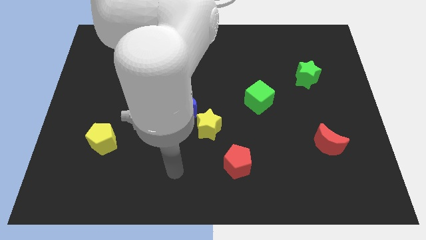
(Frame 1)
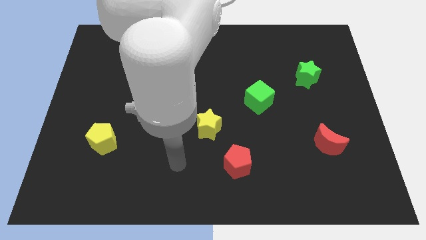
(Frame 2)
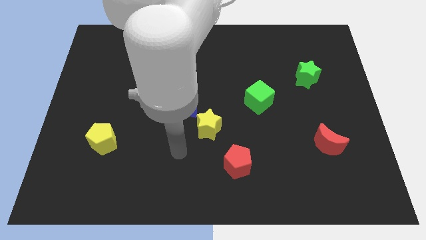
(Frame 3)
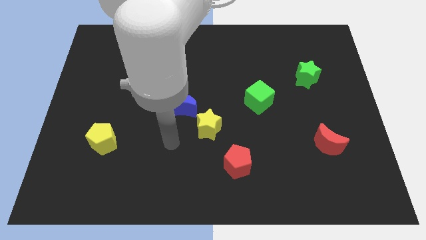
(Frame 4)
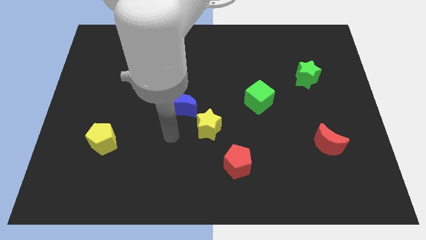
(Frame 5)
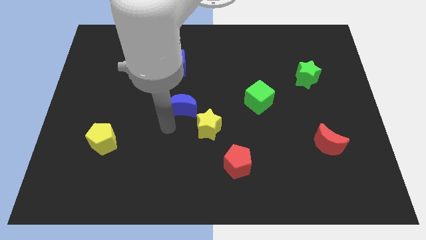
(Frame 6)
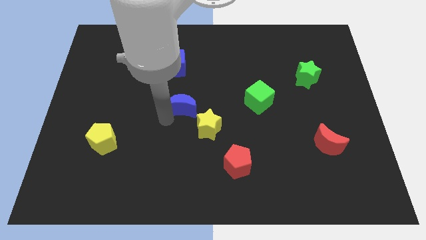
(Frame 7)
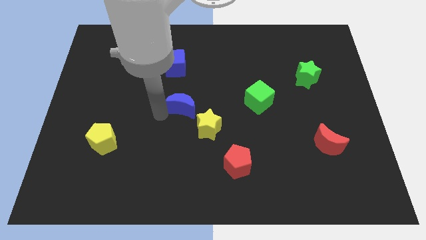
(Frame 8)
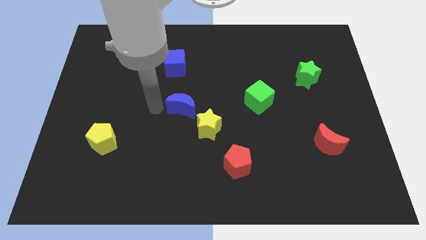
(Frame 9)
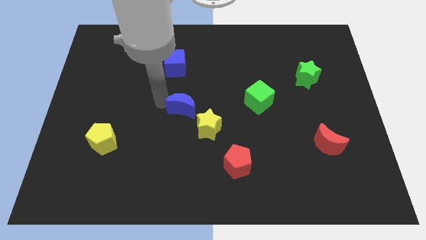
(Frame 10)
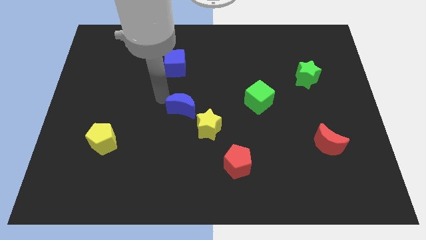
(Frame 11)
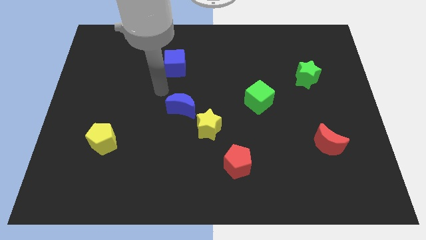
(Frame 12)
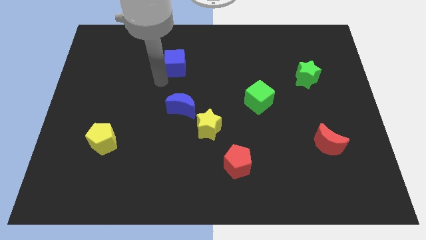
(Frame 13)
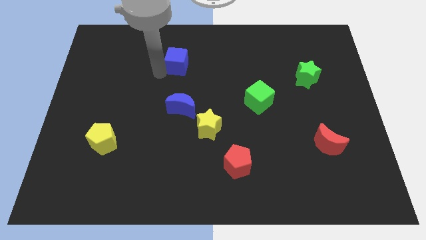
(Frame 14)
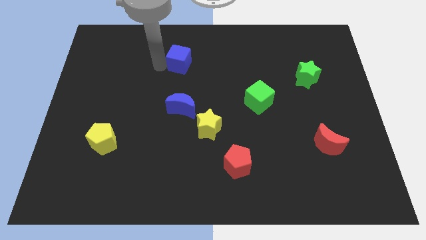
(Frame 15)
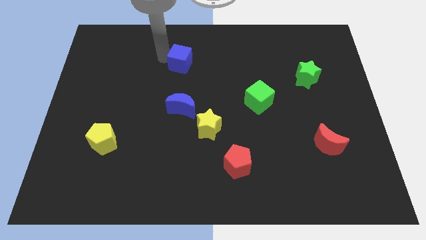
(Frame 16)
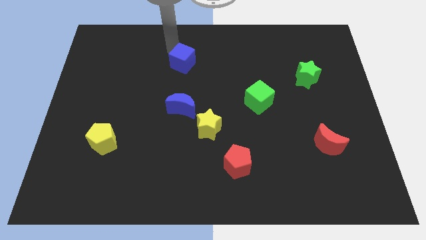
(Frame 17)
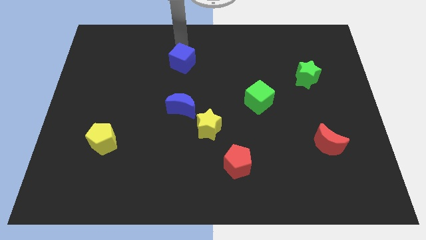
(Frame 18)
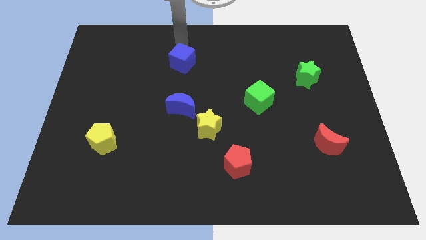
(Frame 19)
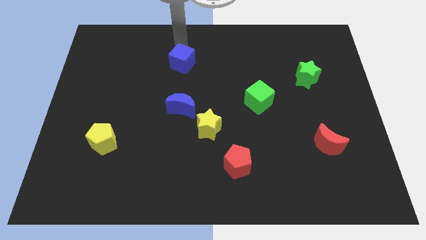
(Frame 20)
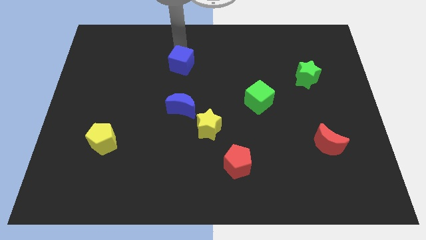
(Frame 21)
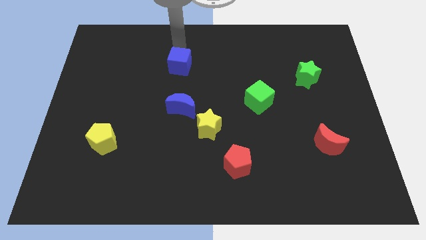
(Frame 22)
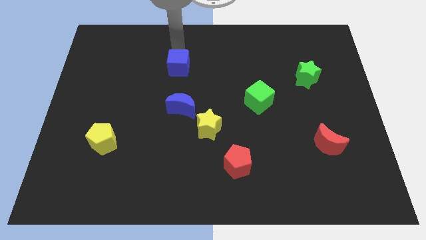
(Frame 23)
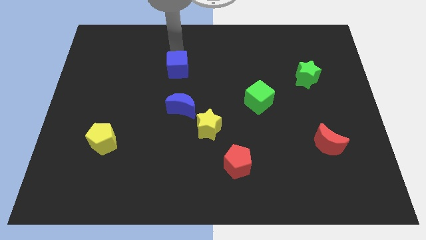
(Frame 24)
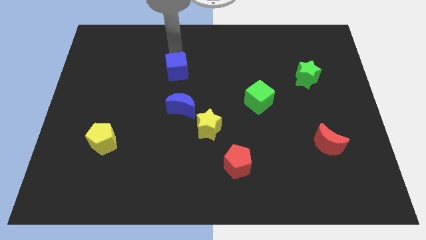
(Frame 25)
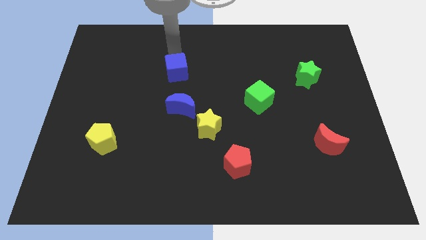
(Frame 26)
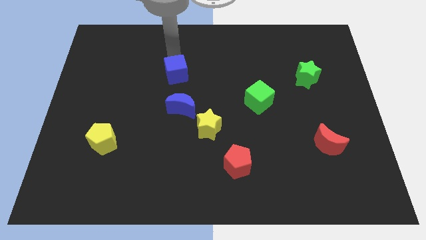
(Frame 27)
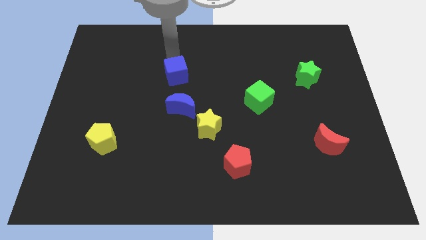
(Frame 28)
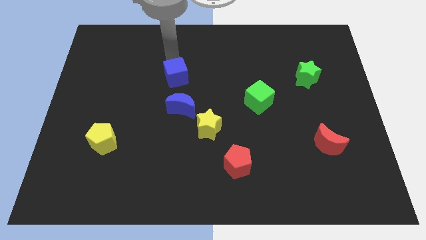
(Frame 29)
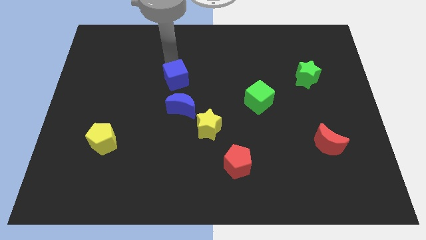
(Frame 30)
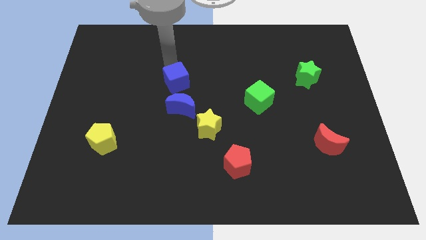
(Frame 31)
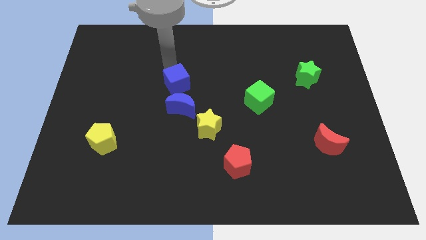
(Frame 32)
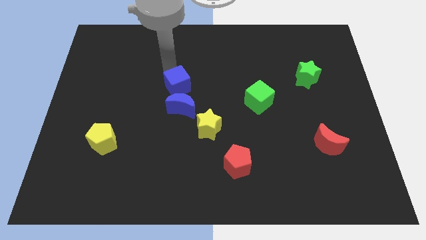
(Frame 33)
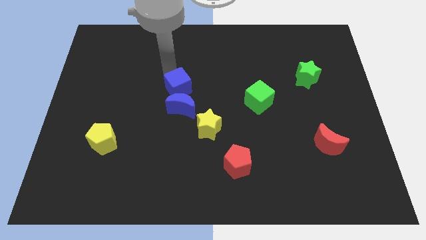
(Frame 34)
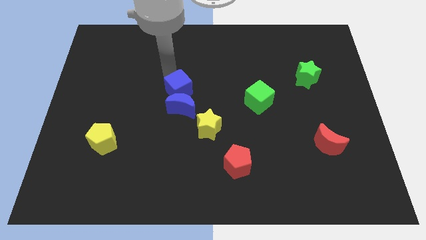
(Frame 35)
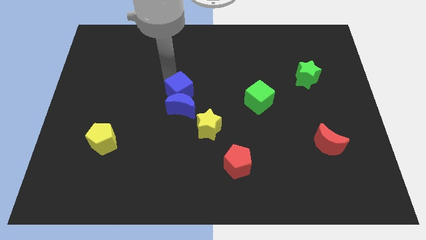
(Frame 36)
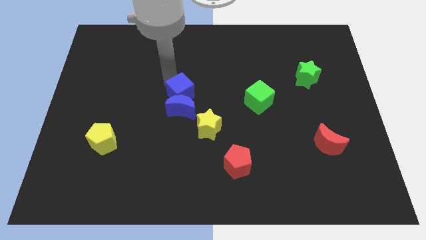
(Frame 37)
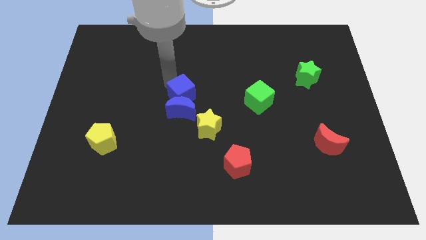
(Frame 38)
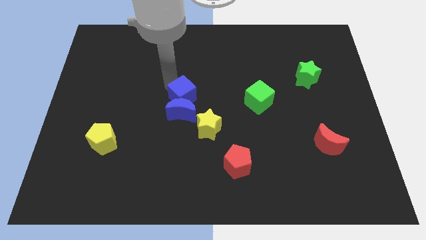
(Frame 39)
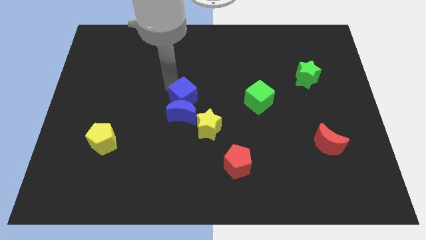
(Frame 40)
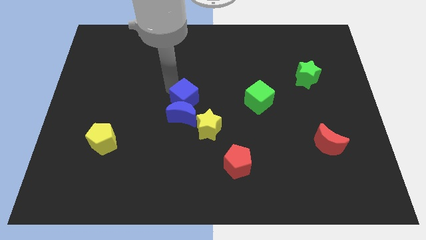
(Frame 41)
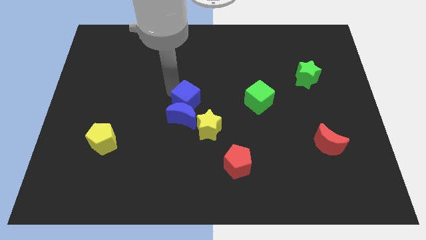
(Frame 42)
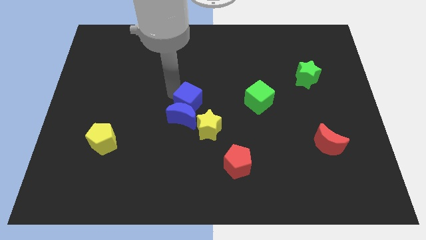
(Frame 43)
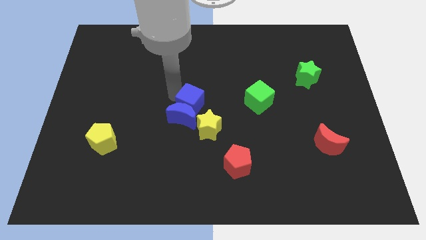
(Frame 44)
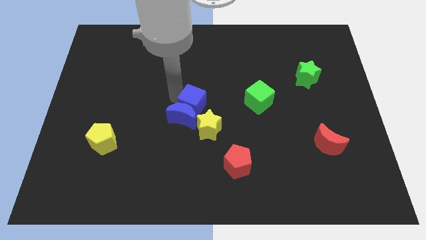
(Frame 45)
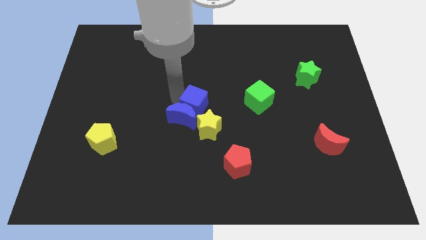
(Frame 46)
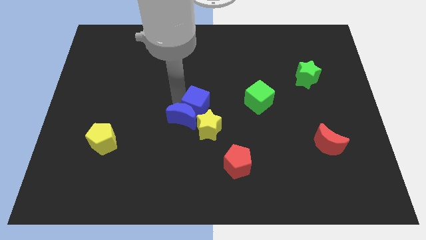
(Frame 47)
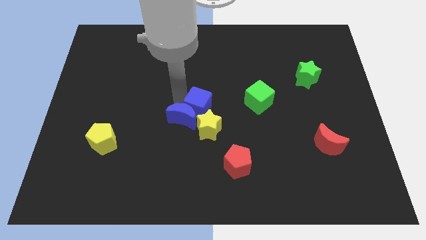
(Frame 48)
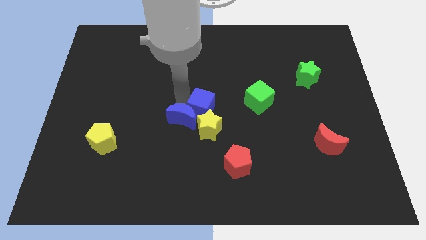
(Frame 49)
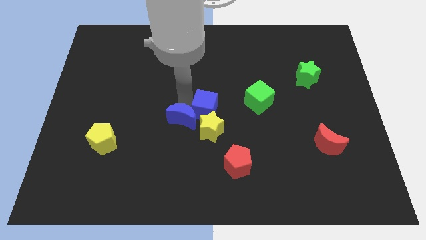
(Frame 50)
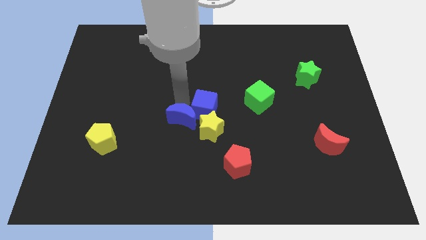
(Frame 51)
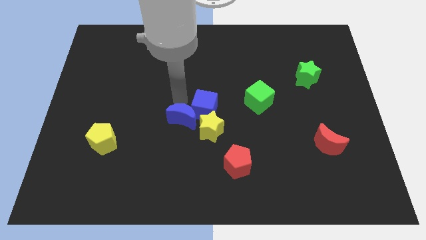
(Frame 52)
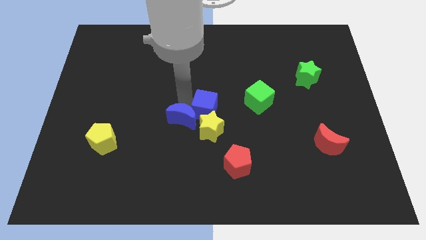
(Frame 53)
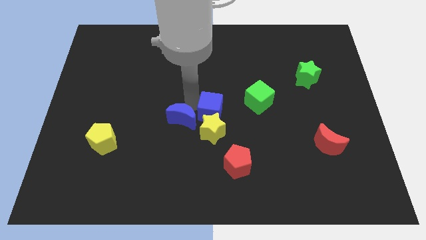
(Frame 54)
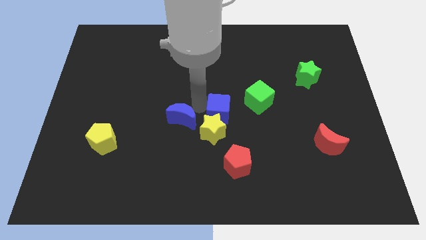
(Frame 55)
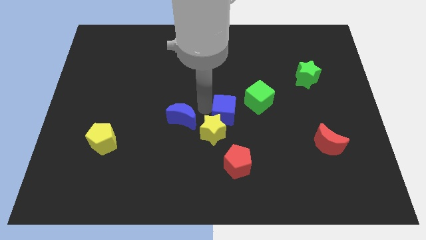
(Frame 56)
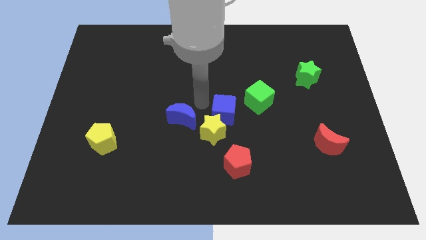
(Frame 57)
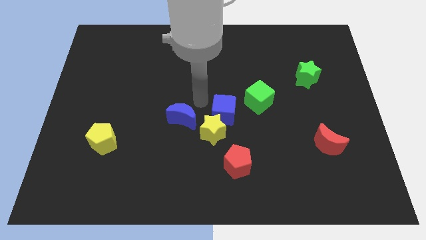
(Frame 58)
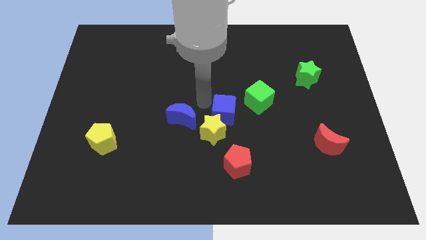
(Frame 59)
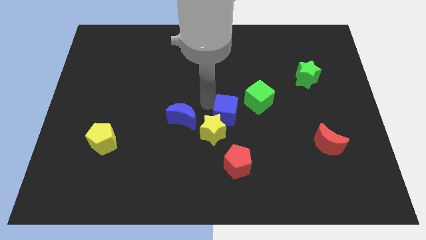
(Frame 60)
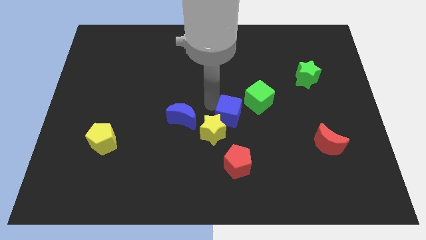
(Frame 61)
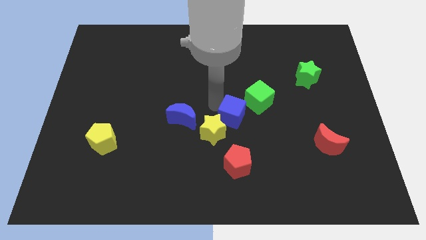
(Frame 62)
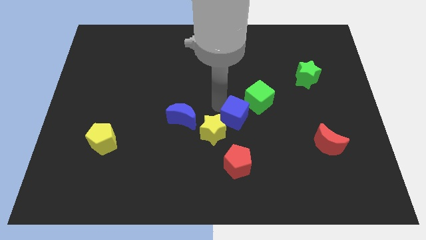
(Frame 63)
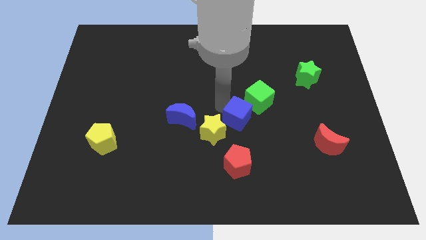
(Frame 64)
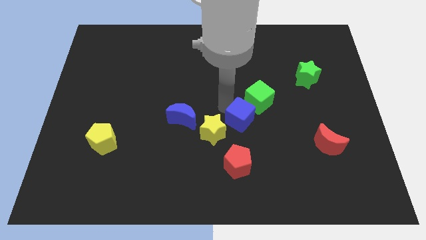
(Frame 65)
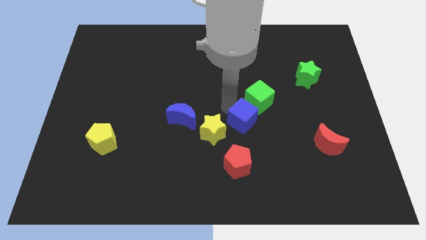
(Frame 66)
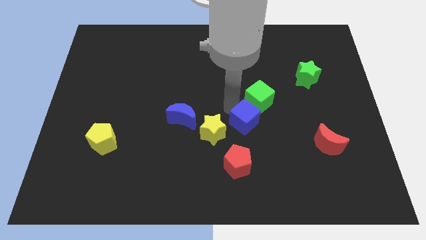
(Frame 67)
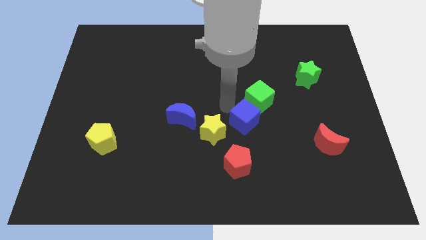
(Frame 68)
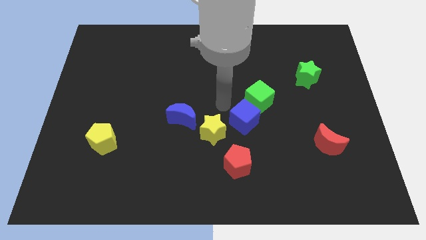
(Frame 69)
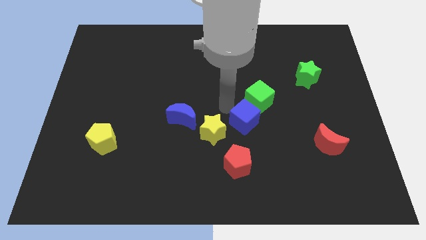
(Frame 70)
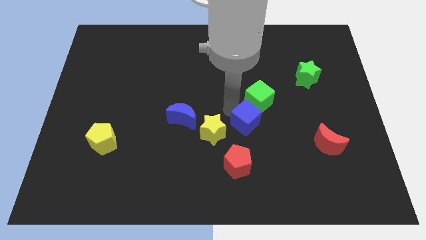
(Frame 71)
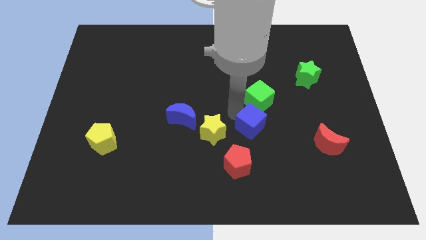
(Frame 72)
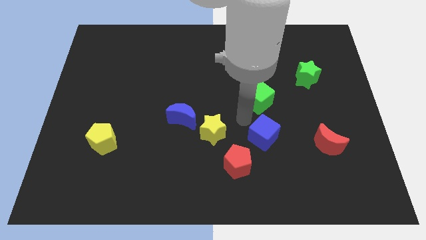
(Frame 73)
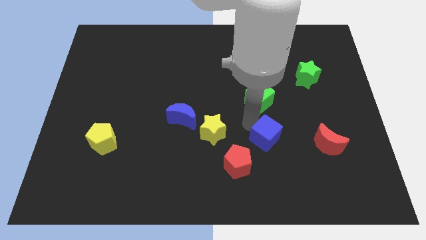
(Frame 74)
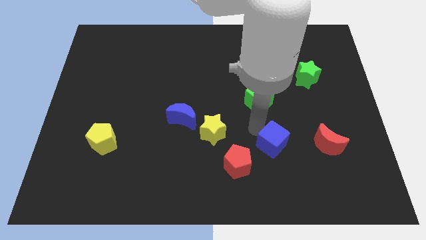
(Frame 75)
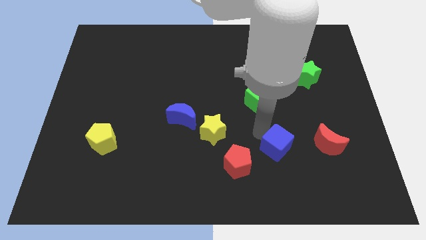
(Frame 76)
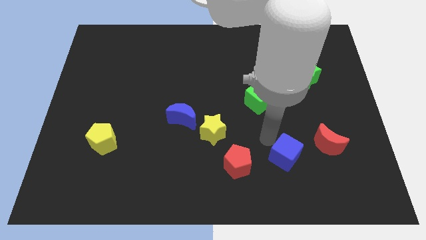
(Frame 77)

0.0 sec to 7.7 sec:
move the blue cube to the bottom left side of the red moon
